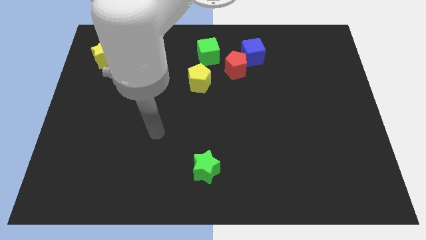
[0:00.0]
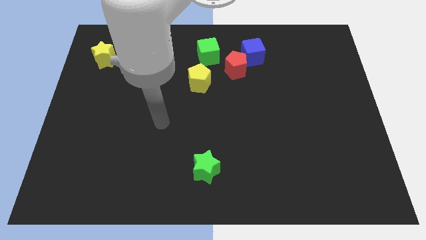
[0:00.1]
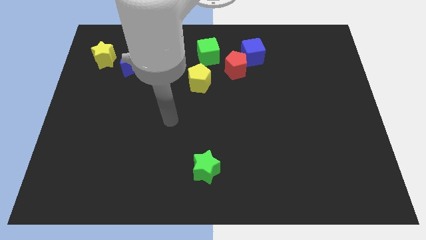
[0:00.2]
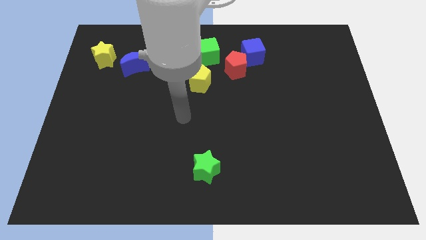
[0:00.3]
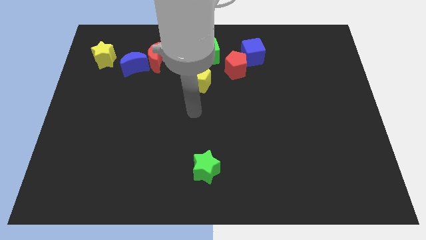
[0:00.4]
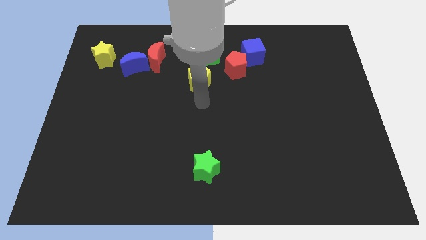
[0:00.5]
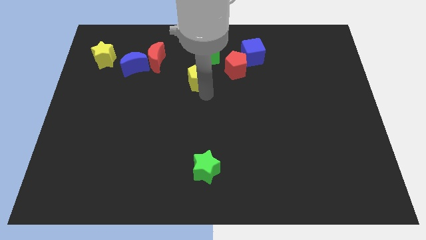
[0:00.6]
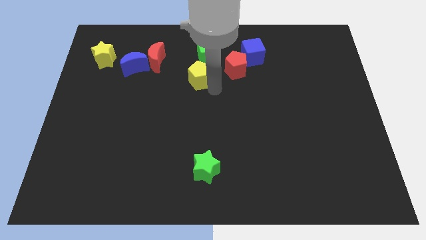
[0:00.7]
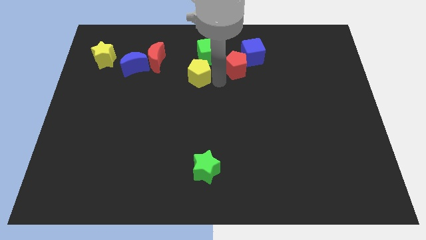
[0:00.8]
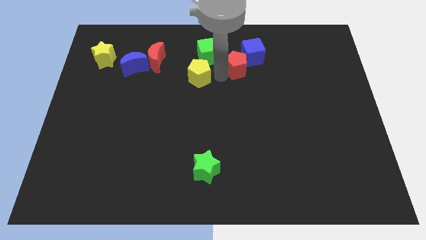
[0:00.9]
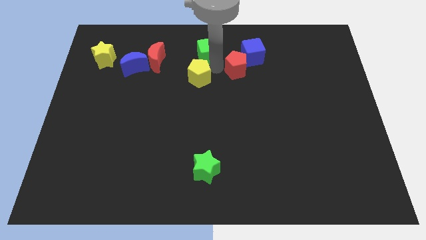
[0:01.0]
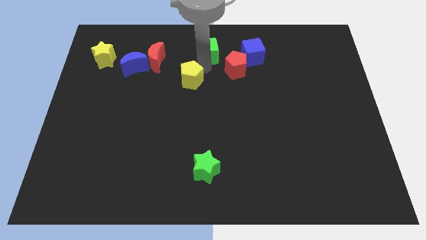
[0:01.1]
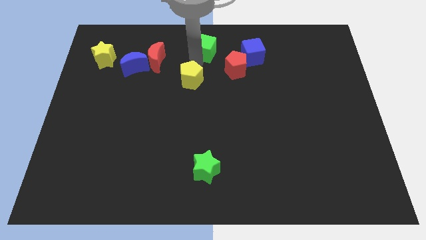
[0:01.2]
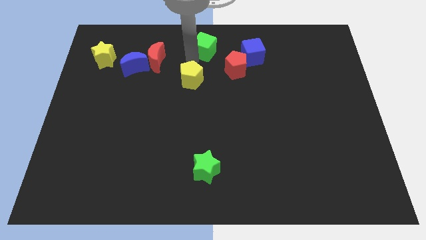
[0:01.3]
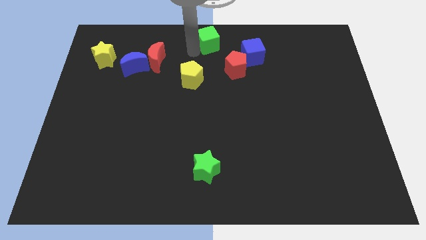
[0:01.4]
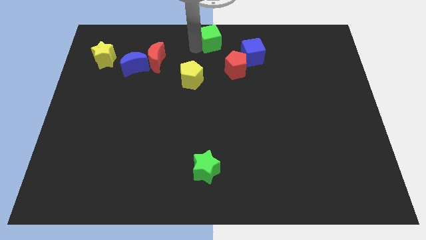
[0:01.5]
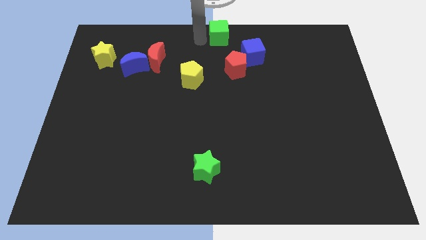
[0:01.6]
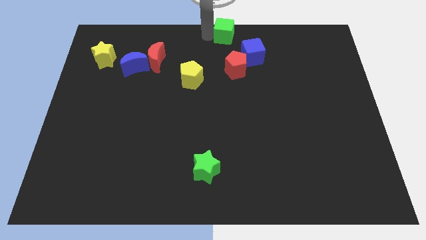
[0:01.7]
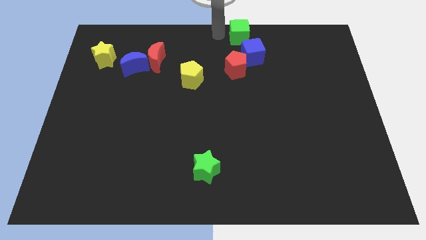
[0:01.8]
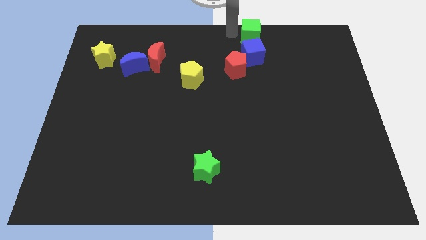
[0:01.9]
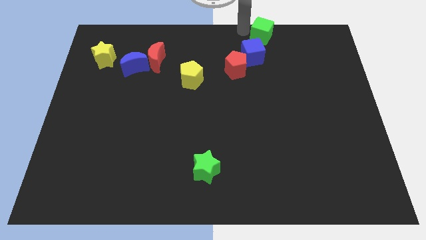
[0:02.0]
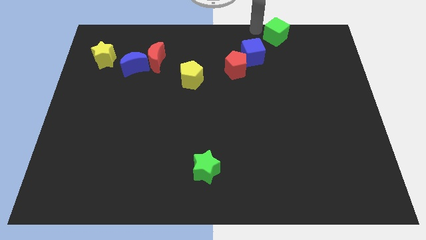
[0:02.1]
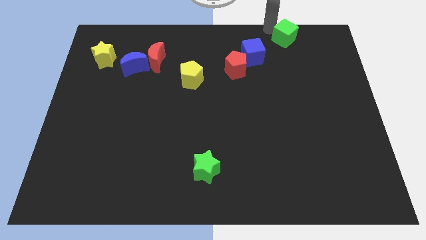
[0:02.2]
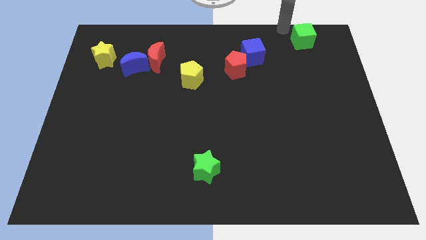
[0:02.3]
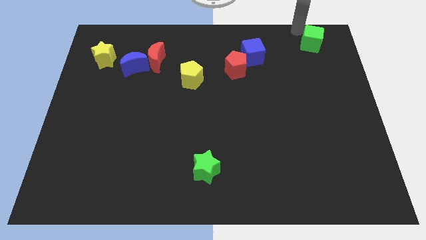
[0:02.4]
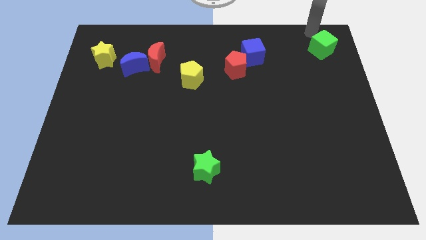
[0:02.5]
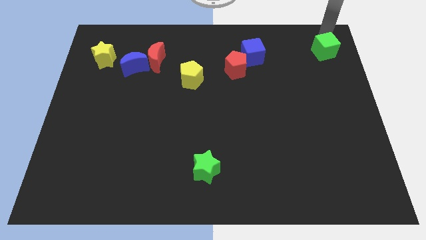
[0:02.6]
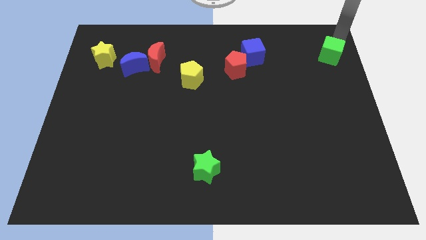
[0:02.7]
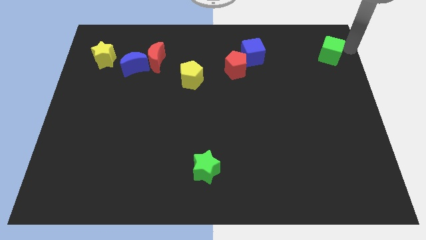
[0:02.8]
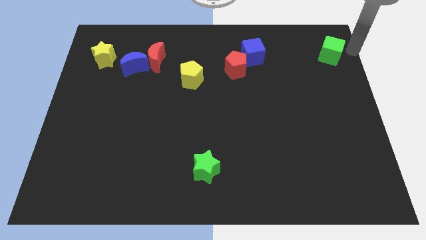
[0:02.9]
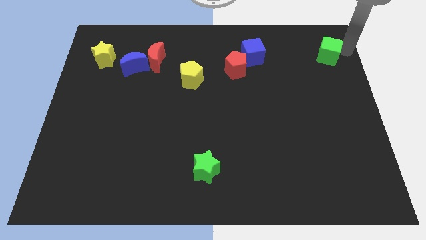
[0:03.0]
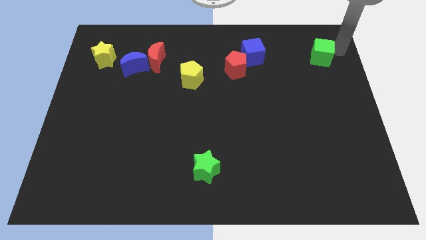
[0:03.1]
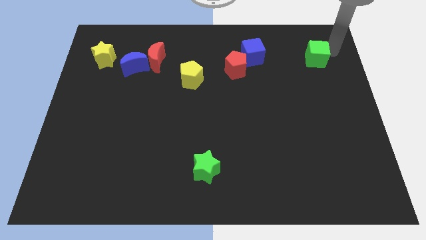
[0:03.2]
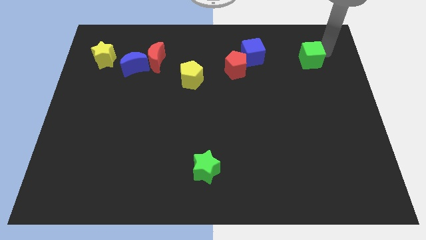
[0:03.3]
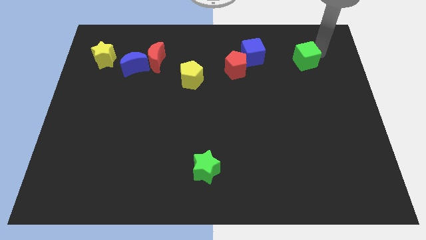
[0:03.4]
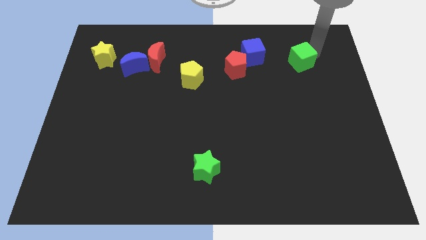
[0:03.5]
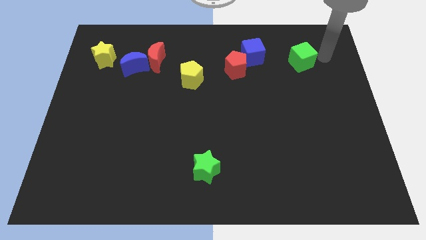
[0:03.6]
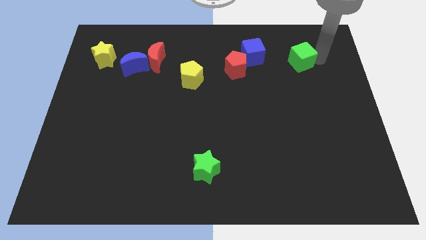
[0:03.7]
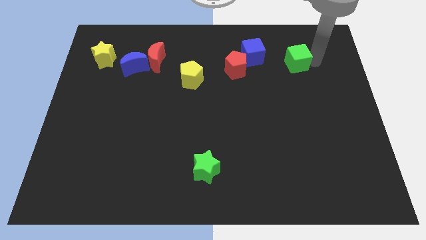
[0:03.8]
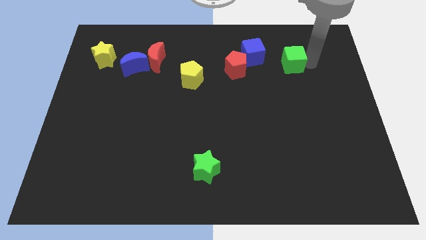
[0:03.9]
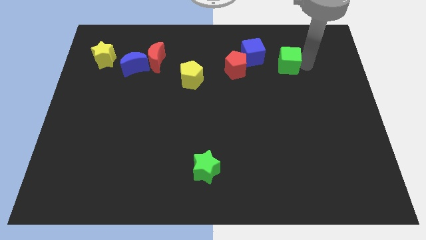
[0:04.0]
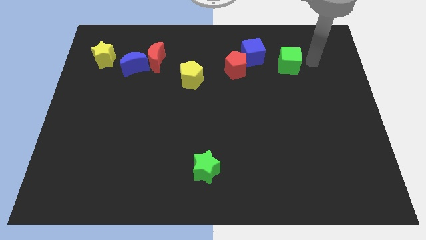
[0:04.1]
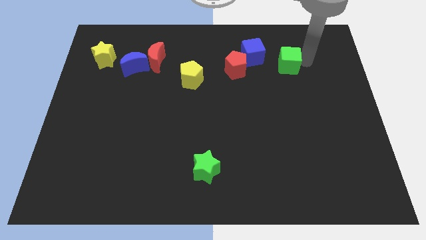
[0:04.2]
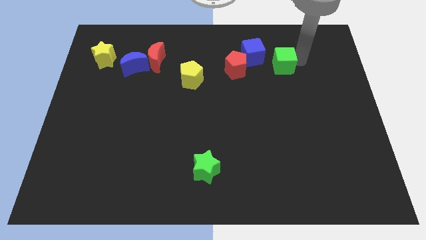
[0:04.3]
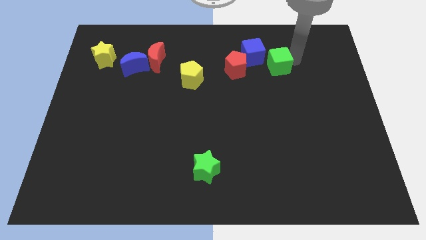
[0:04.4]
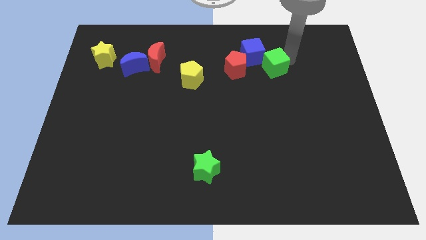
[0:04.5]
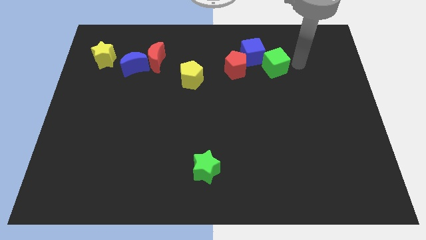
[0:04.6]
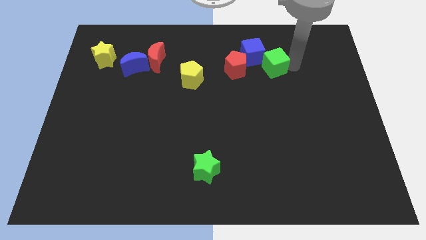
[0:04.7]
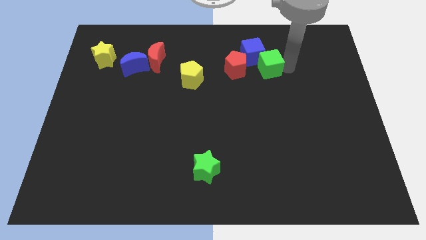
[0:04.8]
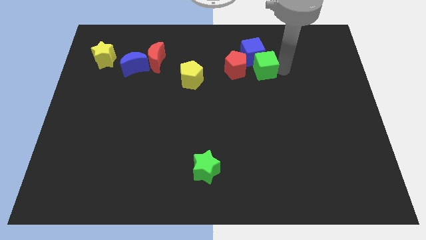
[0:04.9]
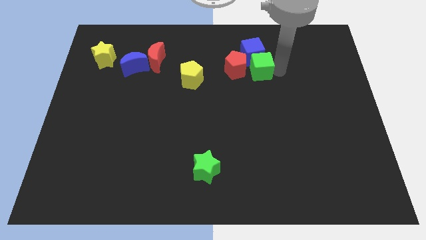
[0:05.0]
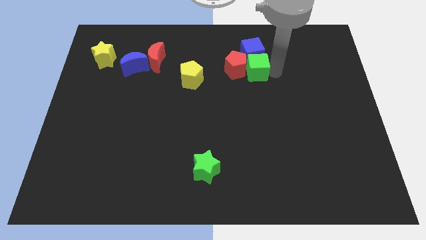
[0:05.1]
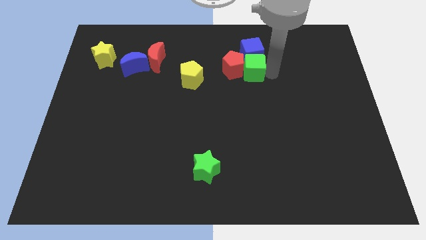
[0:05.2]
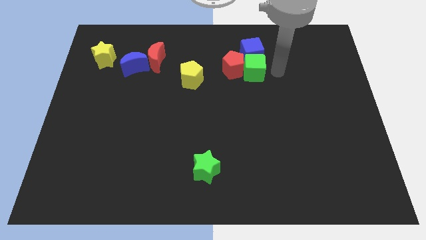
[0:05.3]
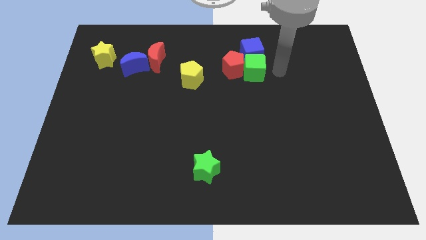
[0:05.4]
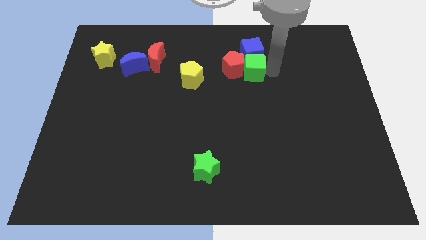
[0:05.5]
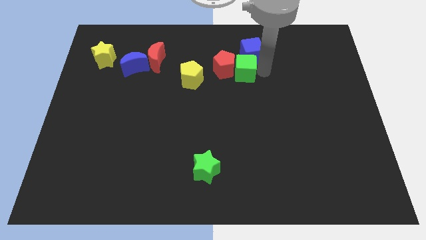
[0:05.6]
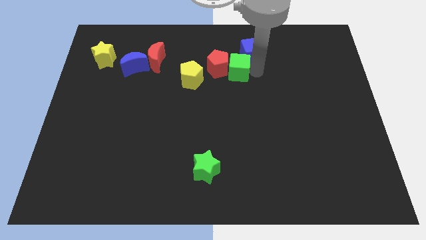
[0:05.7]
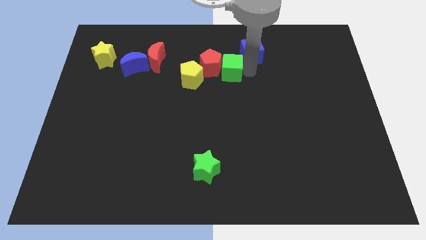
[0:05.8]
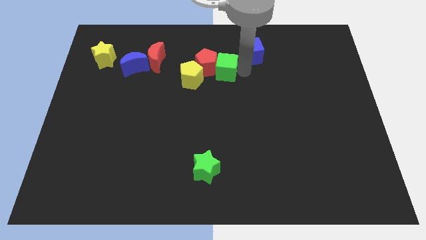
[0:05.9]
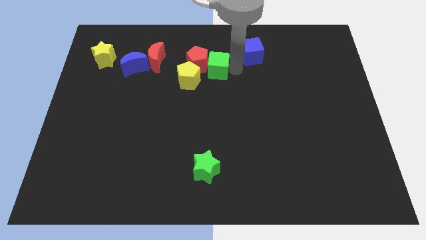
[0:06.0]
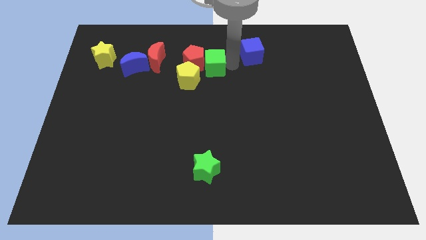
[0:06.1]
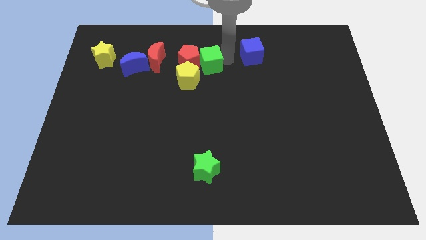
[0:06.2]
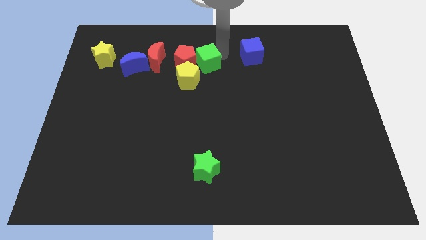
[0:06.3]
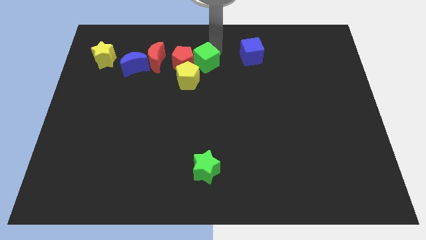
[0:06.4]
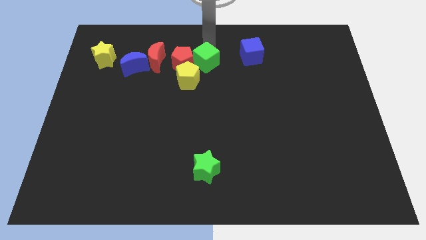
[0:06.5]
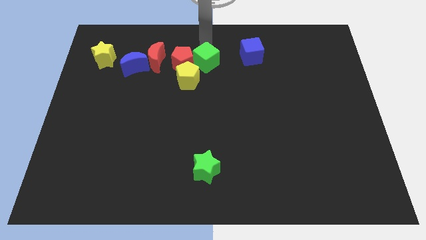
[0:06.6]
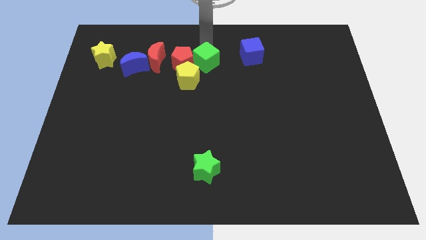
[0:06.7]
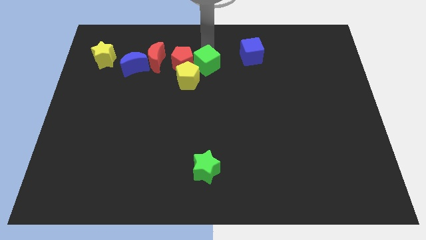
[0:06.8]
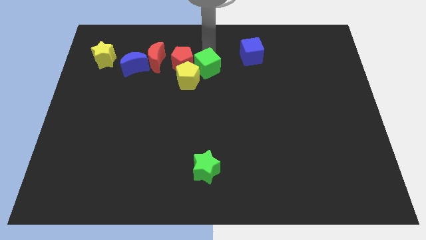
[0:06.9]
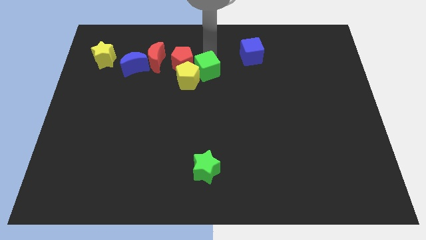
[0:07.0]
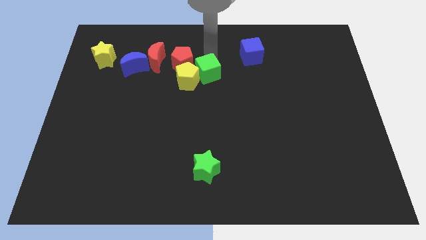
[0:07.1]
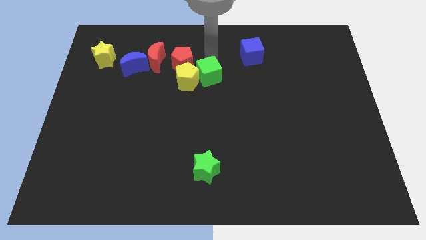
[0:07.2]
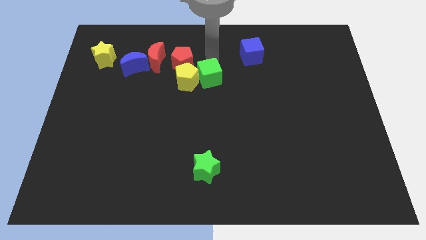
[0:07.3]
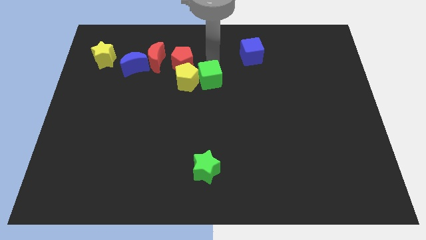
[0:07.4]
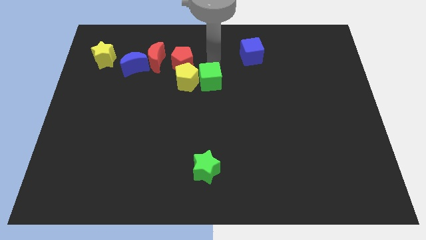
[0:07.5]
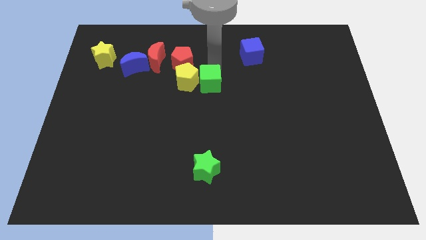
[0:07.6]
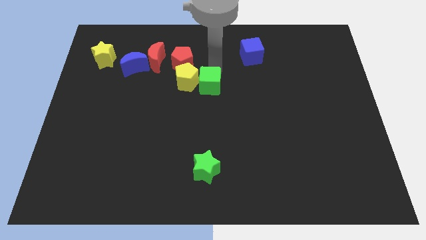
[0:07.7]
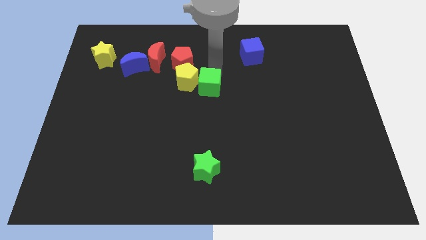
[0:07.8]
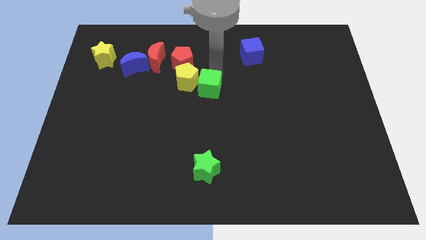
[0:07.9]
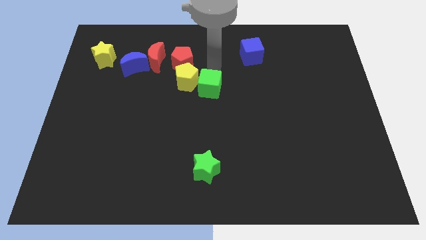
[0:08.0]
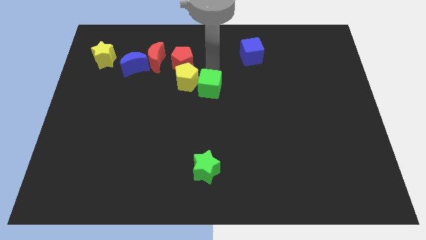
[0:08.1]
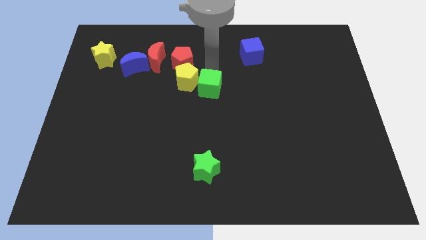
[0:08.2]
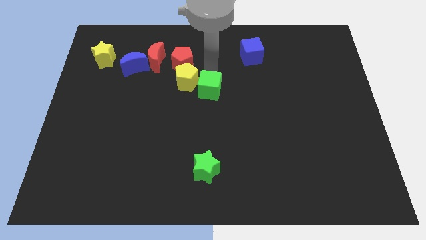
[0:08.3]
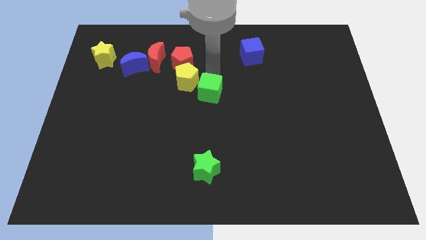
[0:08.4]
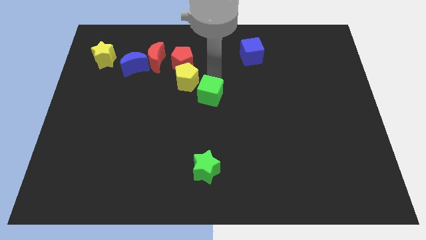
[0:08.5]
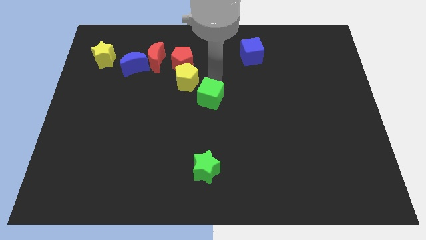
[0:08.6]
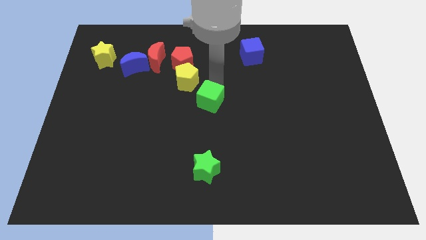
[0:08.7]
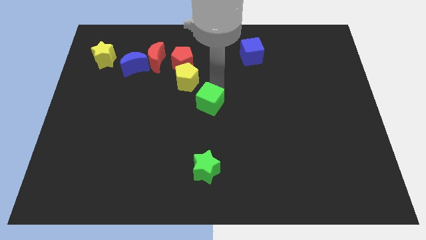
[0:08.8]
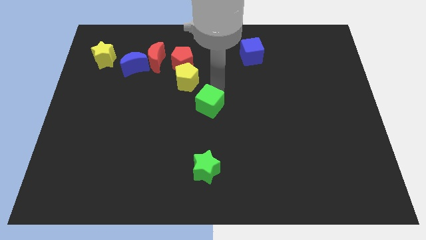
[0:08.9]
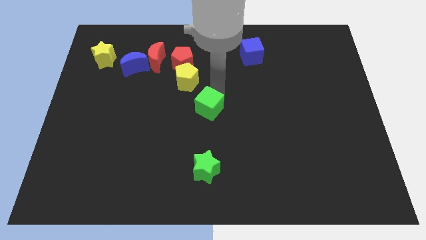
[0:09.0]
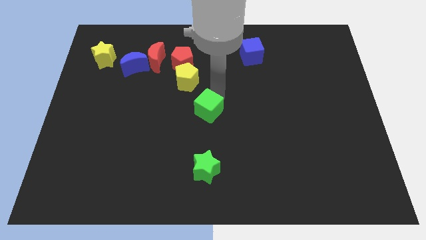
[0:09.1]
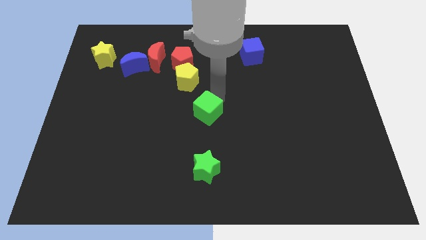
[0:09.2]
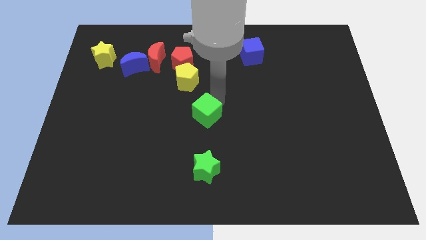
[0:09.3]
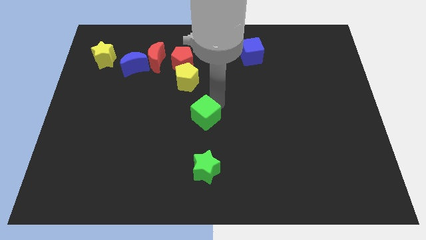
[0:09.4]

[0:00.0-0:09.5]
put the green cube to the bottom of the yellow pentagon
